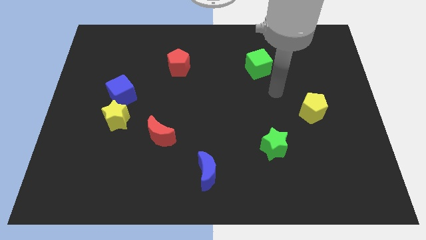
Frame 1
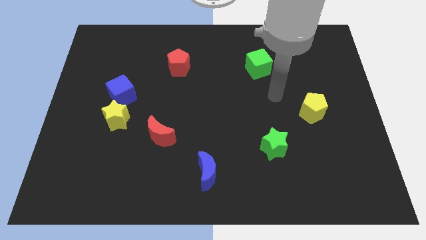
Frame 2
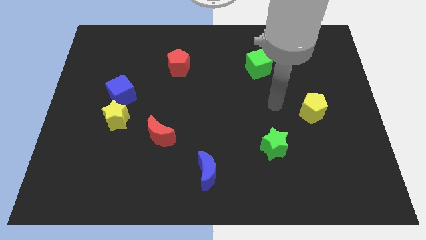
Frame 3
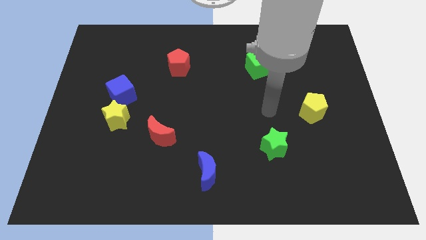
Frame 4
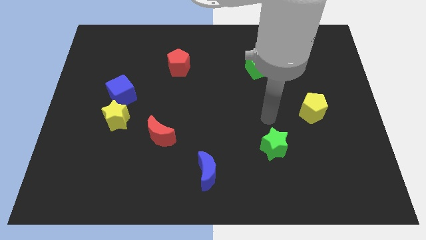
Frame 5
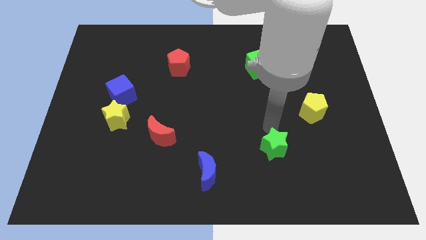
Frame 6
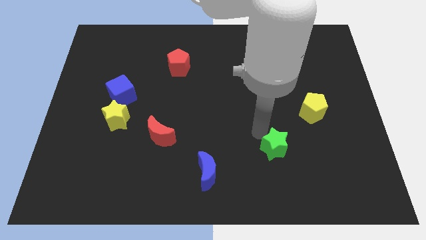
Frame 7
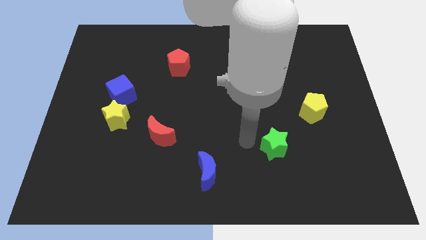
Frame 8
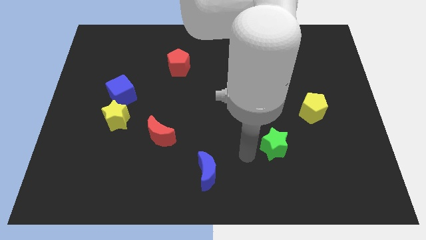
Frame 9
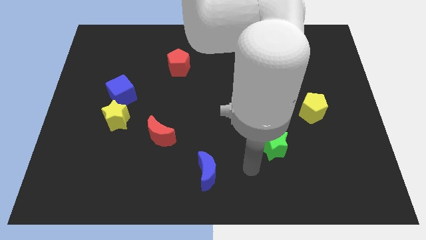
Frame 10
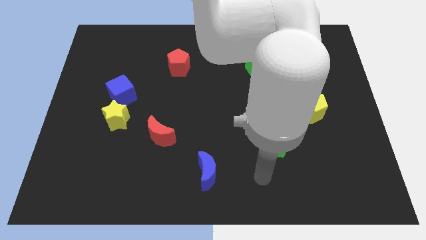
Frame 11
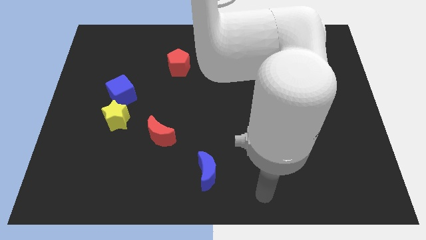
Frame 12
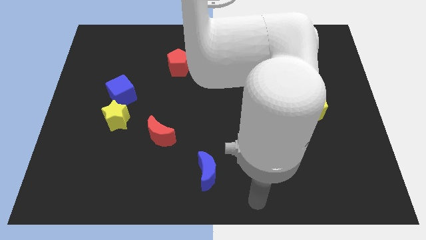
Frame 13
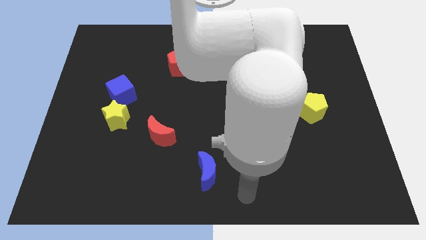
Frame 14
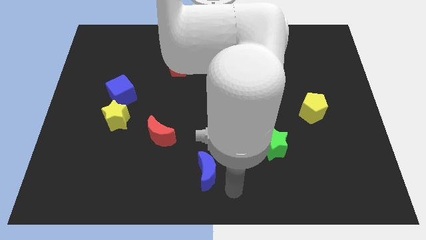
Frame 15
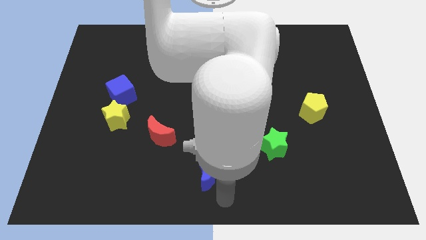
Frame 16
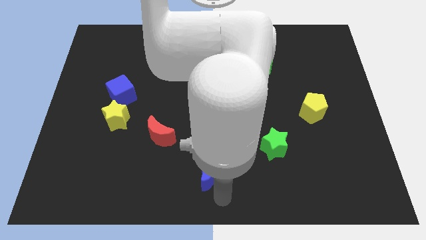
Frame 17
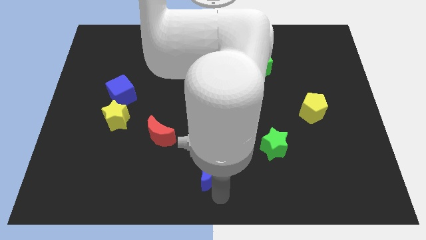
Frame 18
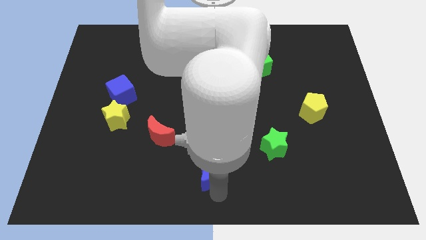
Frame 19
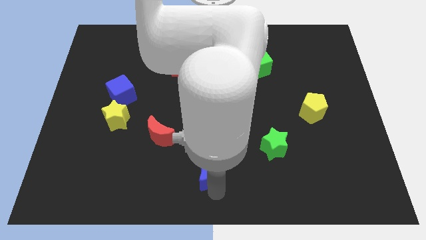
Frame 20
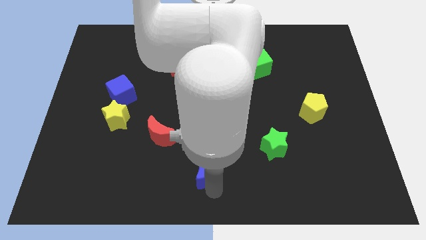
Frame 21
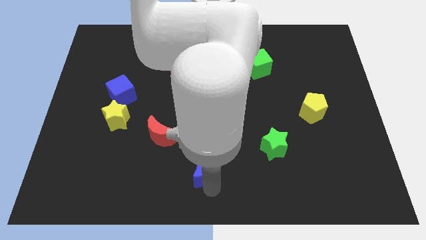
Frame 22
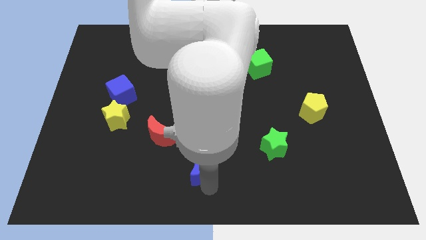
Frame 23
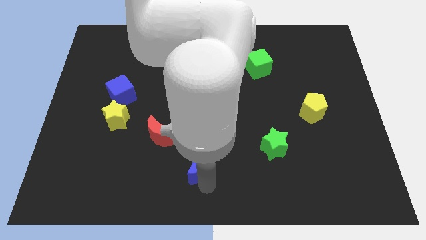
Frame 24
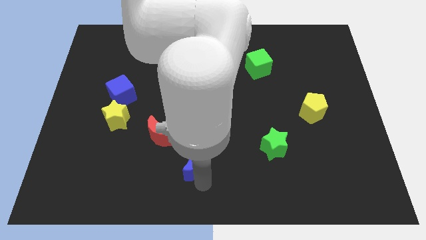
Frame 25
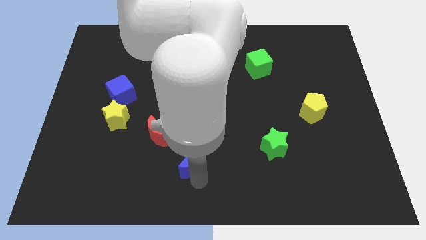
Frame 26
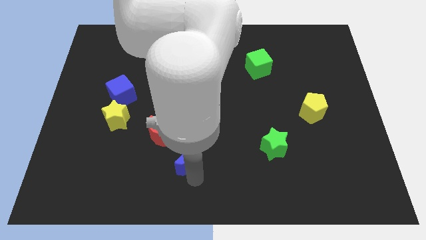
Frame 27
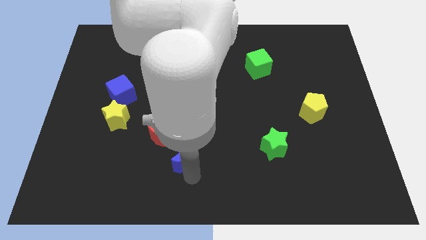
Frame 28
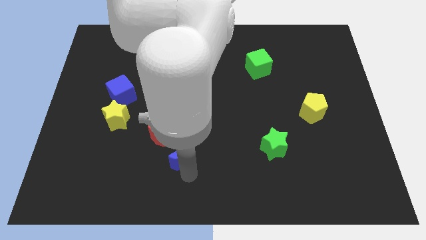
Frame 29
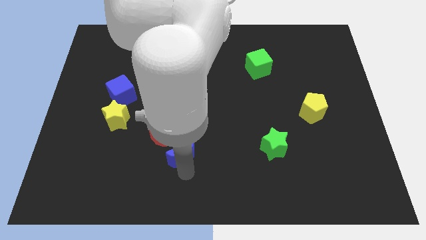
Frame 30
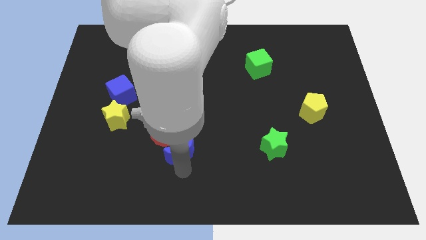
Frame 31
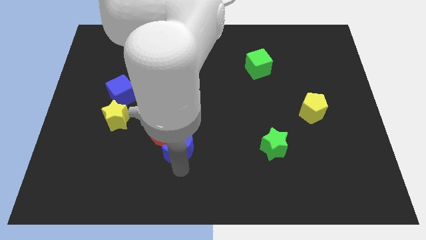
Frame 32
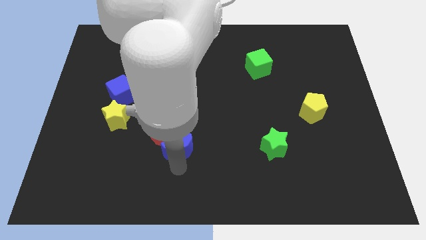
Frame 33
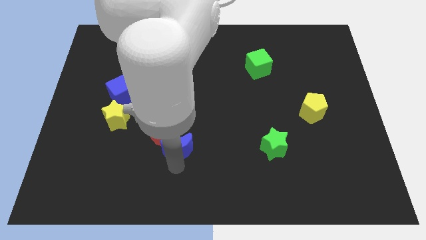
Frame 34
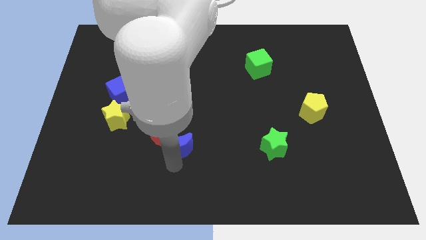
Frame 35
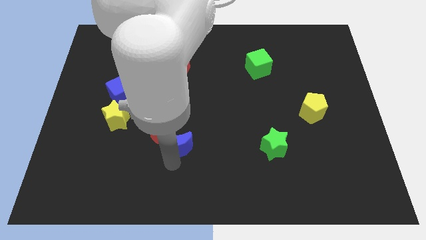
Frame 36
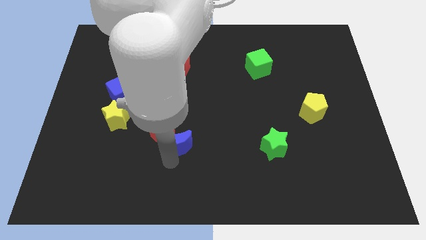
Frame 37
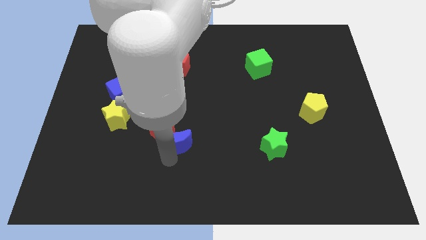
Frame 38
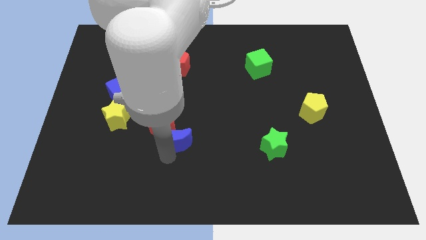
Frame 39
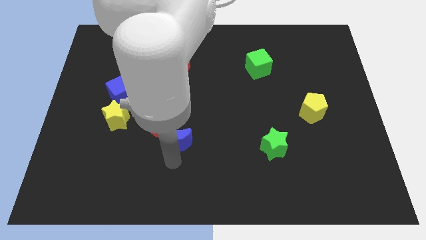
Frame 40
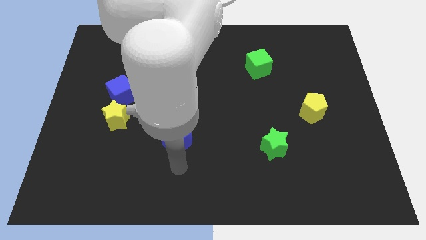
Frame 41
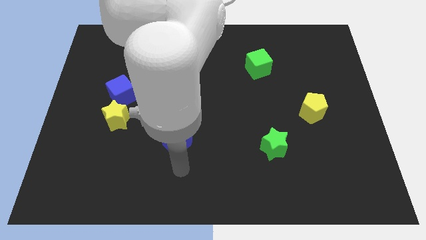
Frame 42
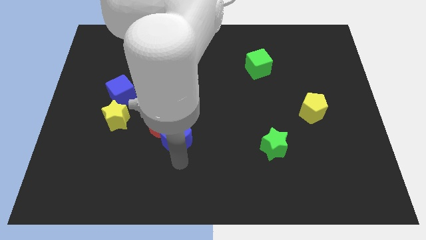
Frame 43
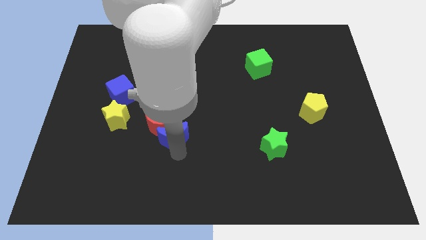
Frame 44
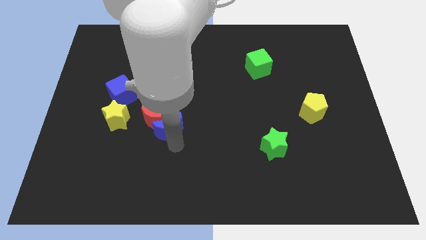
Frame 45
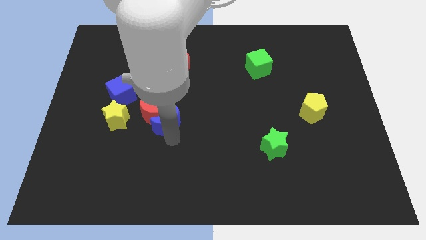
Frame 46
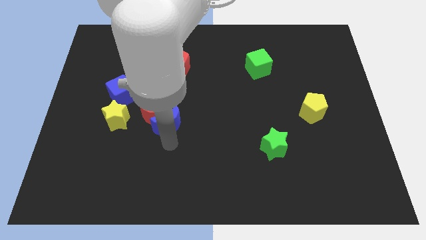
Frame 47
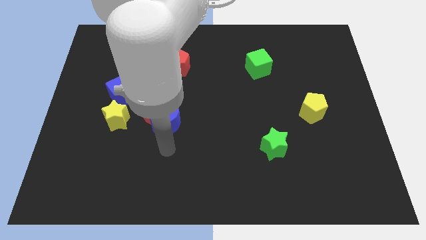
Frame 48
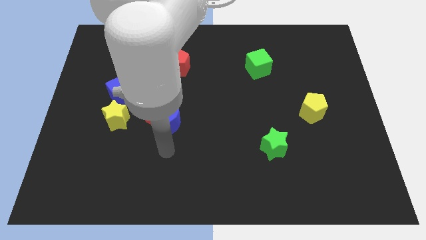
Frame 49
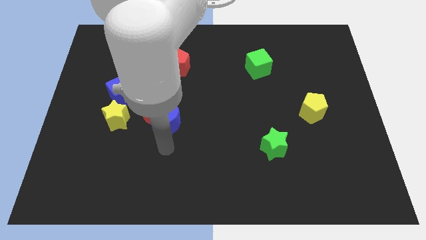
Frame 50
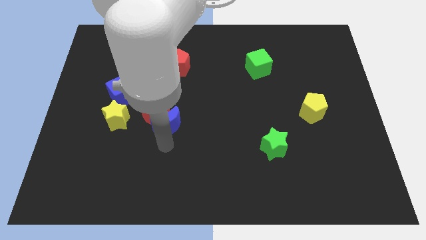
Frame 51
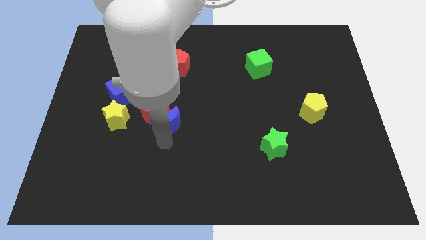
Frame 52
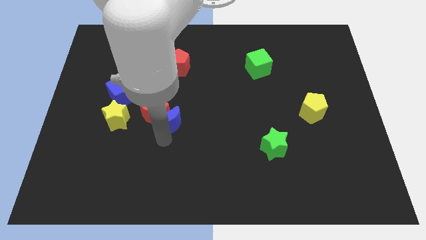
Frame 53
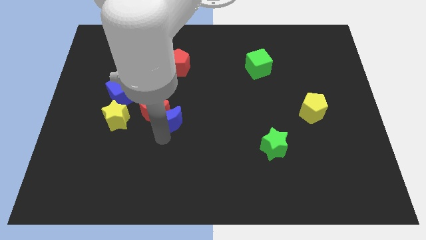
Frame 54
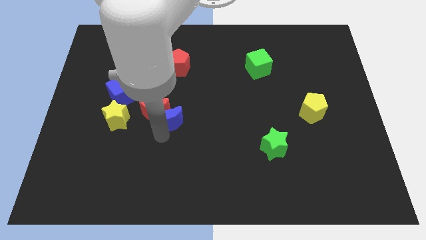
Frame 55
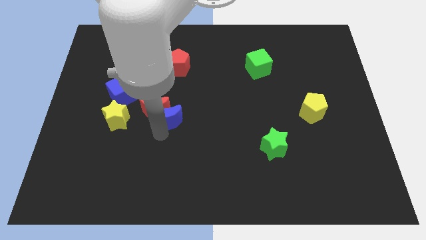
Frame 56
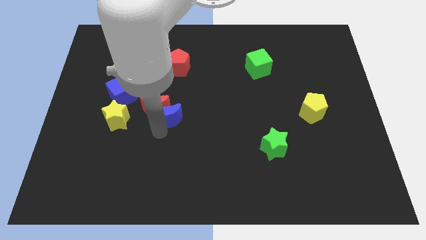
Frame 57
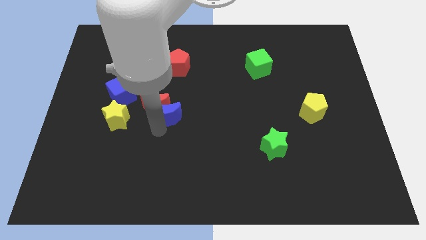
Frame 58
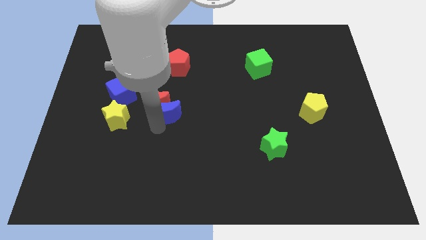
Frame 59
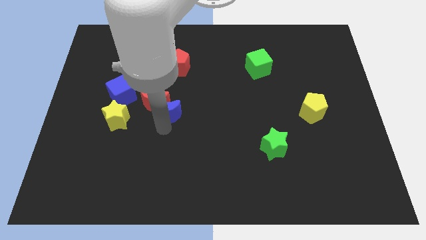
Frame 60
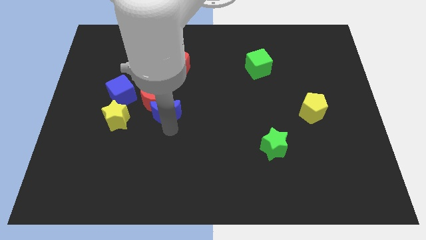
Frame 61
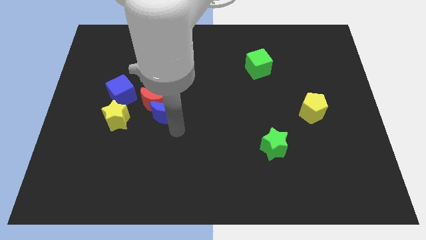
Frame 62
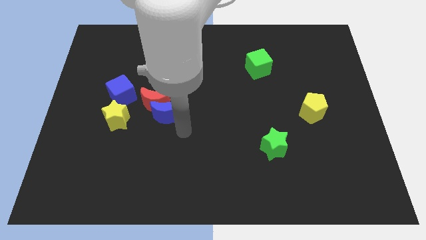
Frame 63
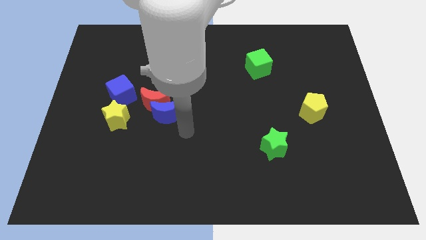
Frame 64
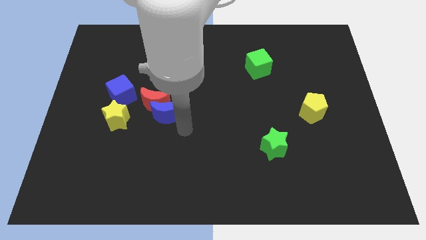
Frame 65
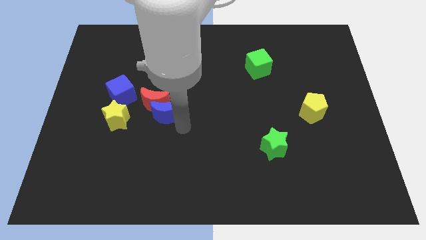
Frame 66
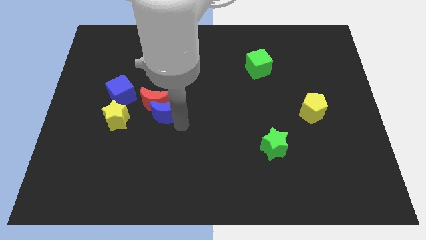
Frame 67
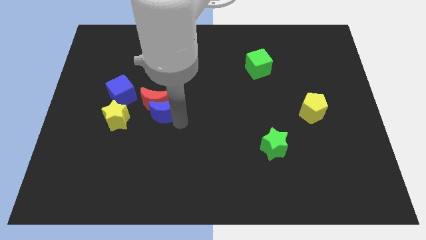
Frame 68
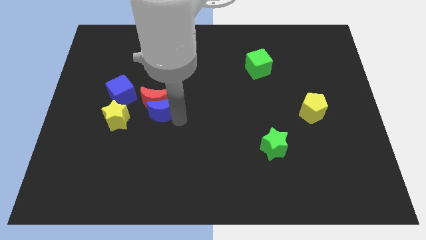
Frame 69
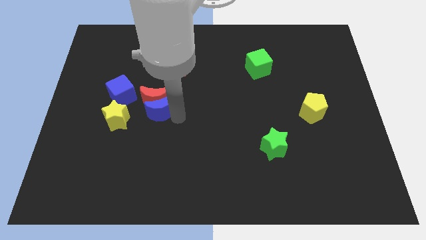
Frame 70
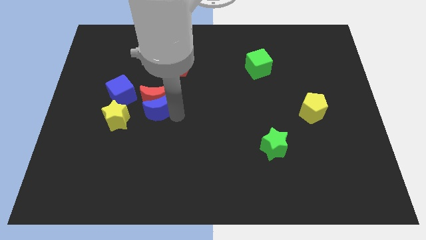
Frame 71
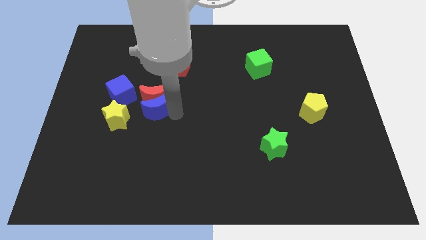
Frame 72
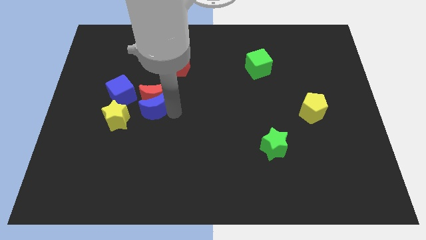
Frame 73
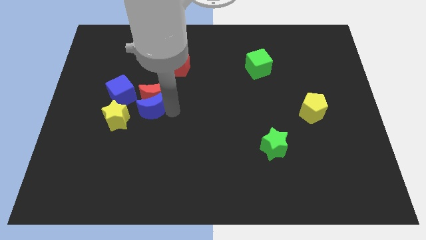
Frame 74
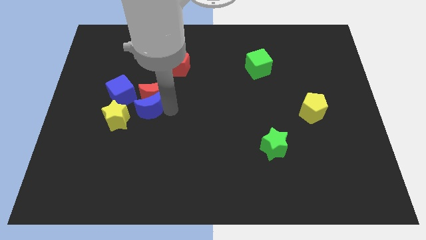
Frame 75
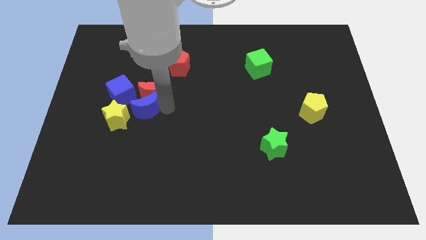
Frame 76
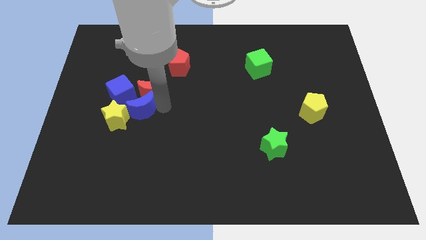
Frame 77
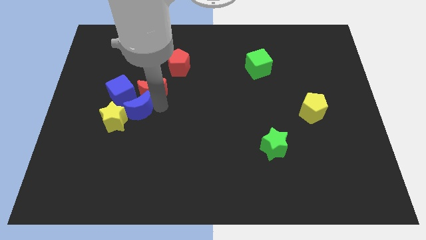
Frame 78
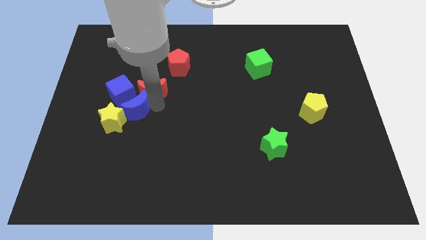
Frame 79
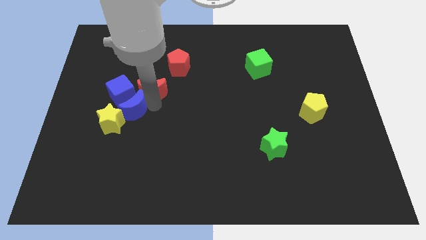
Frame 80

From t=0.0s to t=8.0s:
put the blue moon towards the blue cube

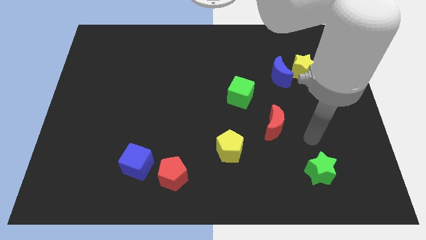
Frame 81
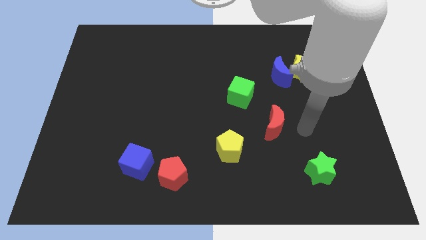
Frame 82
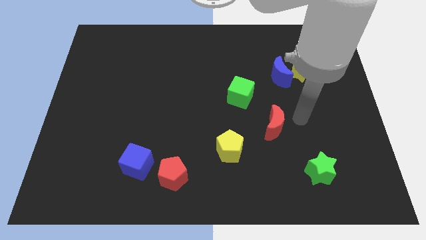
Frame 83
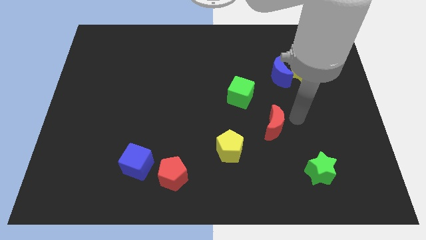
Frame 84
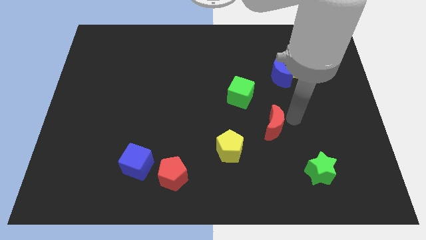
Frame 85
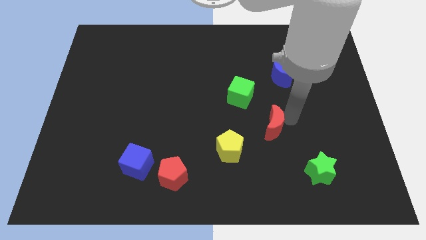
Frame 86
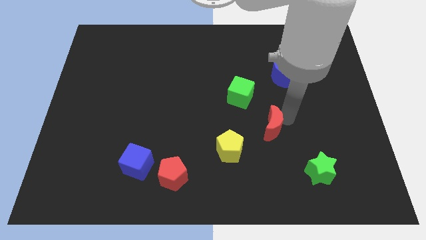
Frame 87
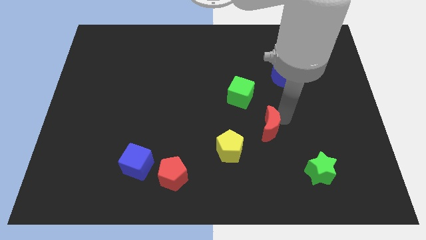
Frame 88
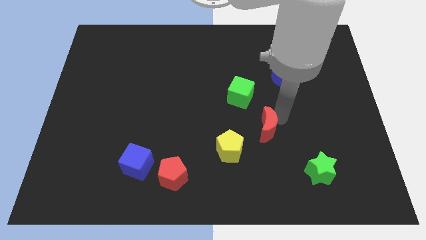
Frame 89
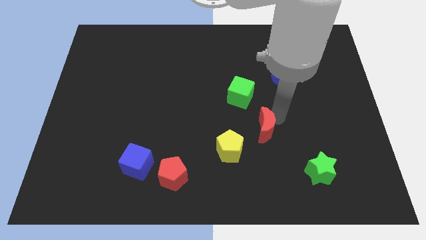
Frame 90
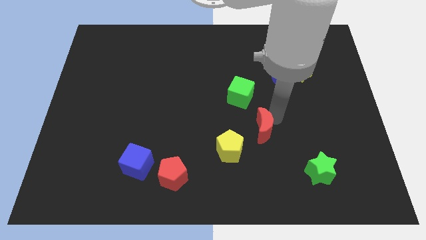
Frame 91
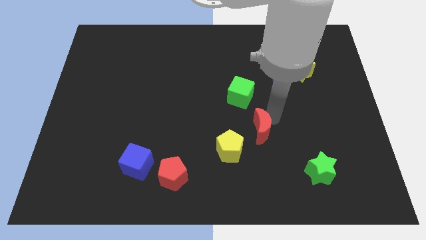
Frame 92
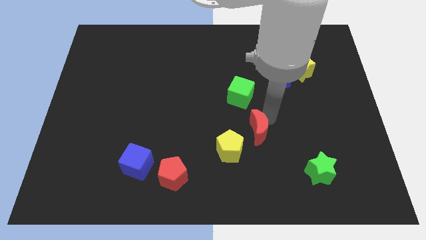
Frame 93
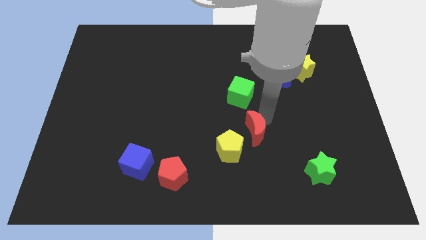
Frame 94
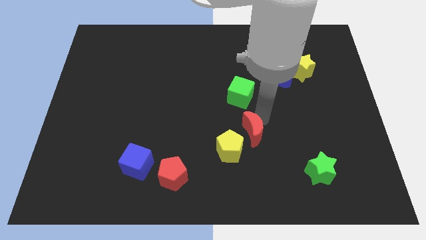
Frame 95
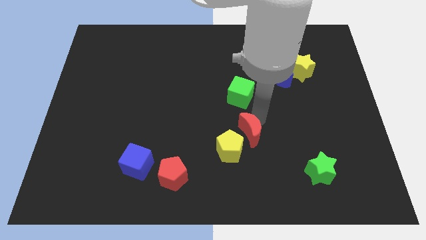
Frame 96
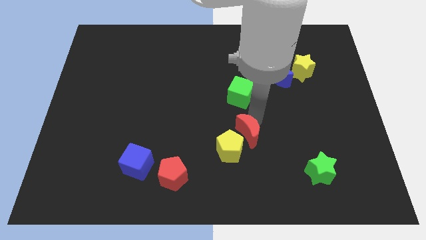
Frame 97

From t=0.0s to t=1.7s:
slide the red moon to the yellow pentagon
